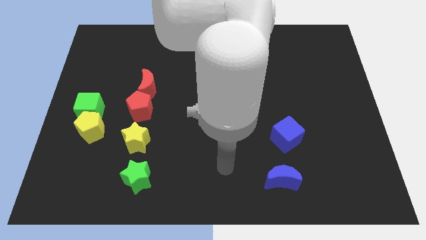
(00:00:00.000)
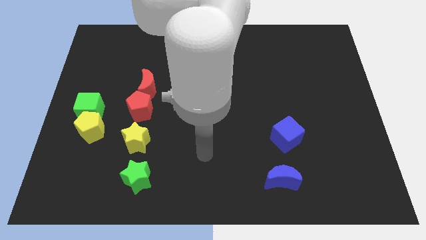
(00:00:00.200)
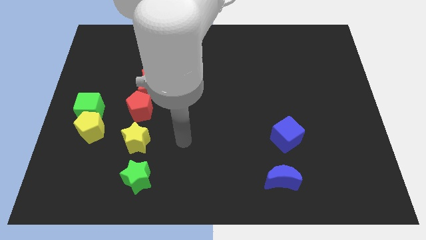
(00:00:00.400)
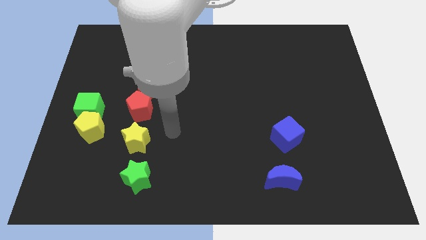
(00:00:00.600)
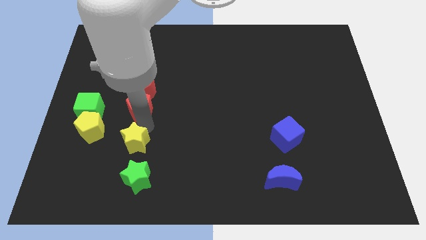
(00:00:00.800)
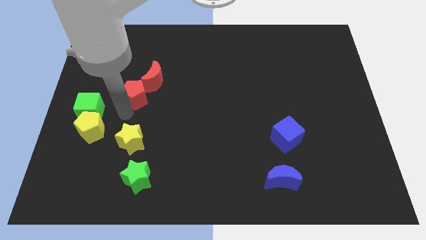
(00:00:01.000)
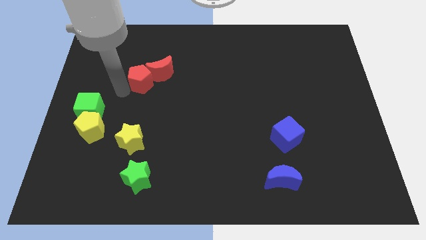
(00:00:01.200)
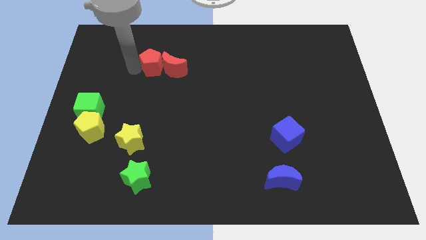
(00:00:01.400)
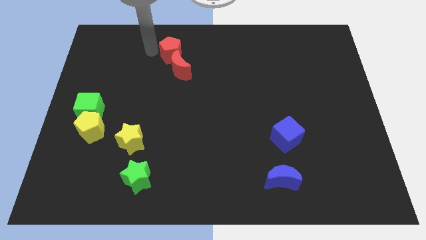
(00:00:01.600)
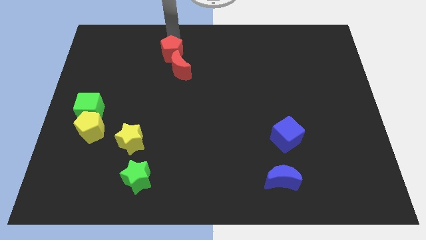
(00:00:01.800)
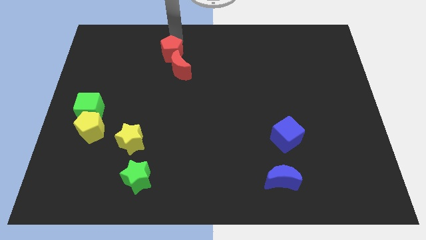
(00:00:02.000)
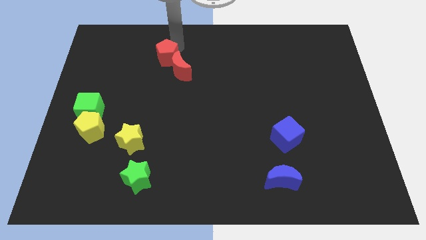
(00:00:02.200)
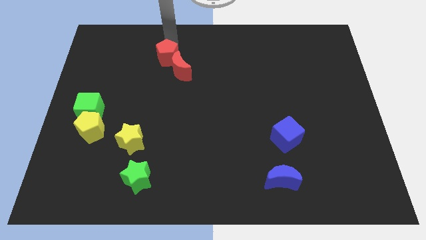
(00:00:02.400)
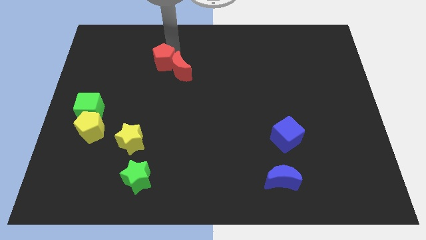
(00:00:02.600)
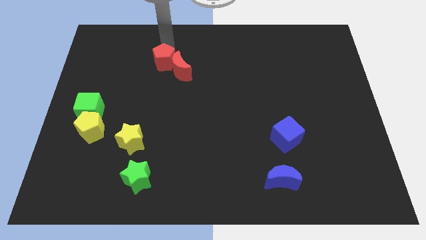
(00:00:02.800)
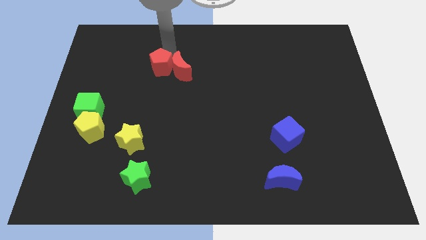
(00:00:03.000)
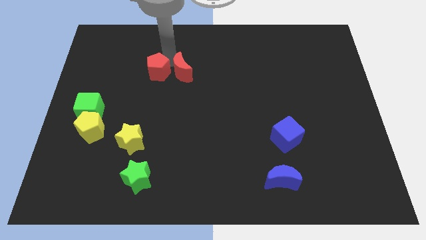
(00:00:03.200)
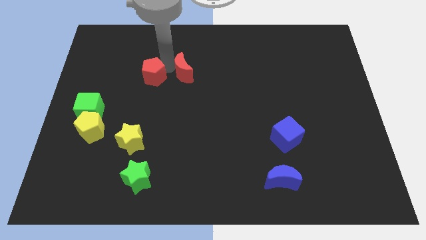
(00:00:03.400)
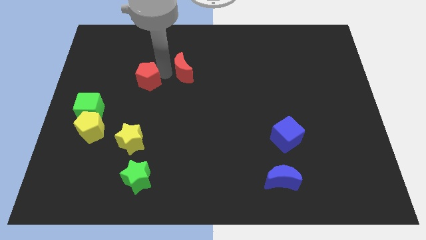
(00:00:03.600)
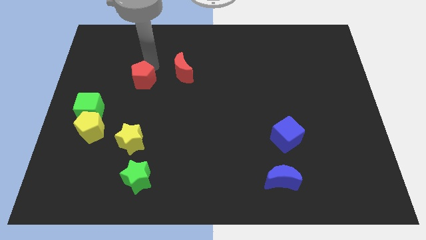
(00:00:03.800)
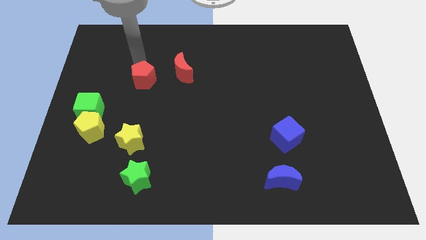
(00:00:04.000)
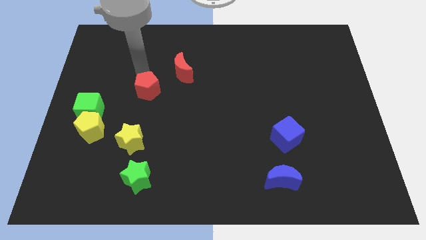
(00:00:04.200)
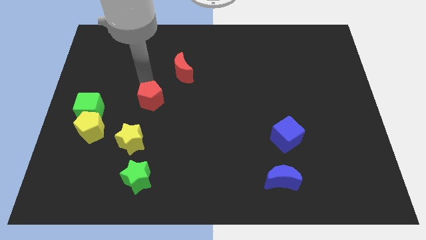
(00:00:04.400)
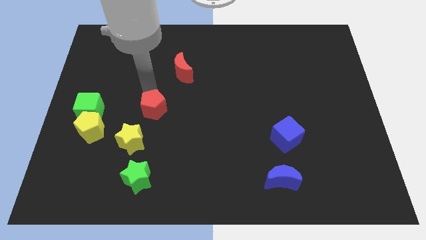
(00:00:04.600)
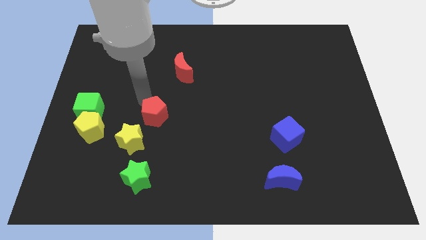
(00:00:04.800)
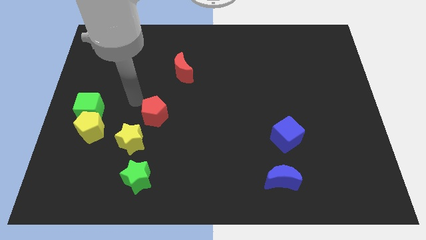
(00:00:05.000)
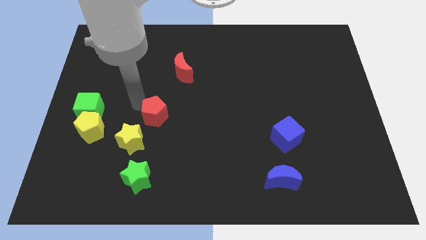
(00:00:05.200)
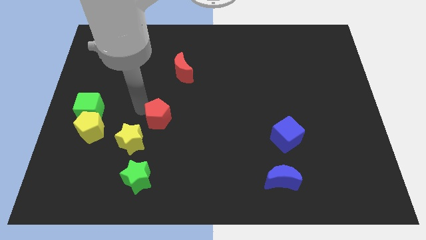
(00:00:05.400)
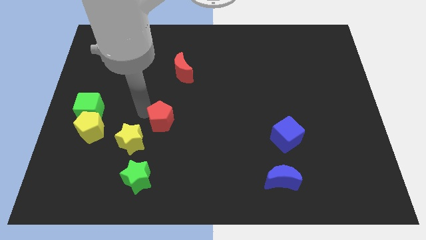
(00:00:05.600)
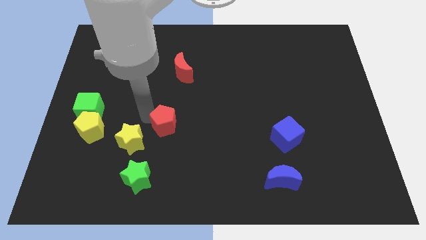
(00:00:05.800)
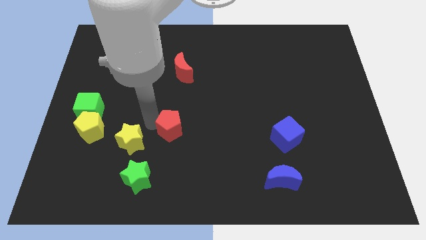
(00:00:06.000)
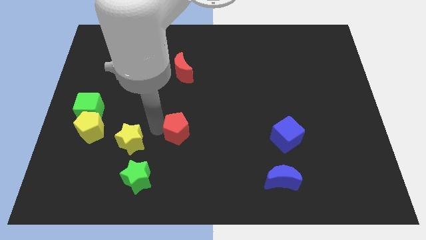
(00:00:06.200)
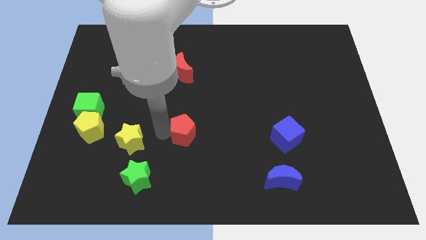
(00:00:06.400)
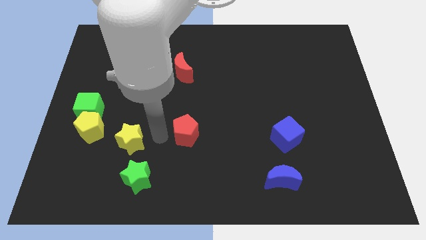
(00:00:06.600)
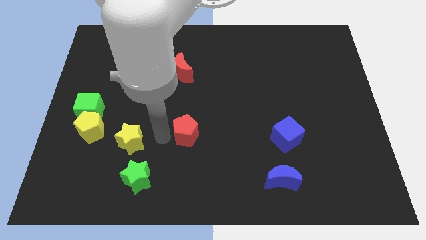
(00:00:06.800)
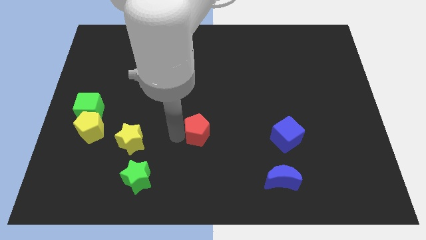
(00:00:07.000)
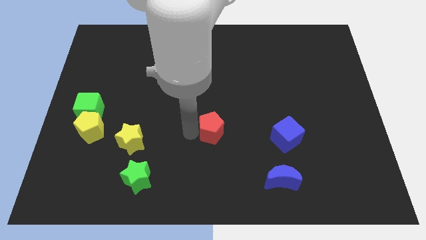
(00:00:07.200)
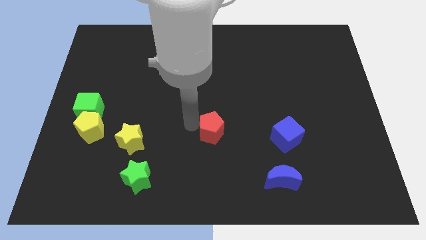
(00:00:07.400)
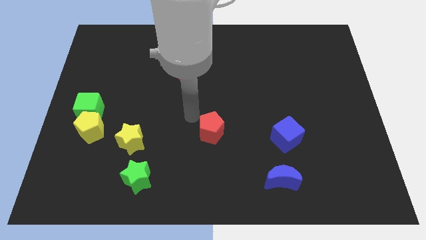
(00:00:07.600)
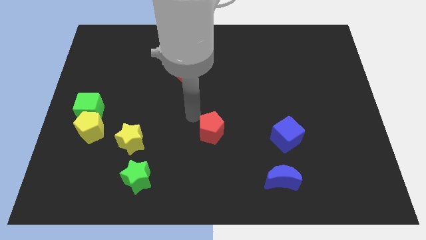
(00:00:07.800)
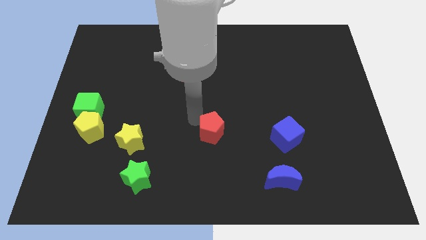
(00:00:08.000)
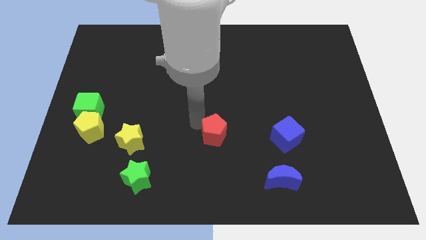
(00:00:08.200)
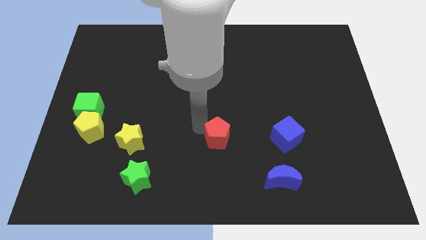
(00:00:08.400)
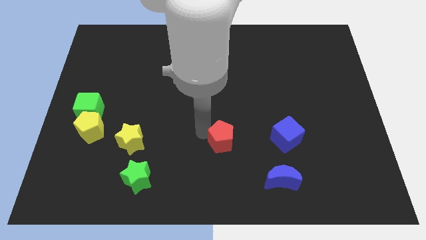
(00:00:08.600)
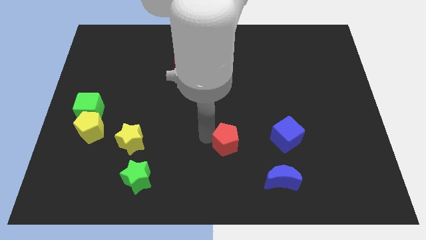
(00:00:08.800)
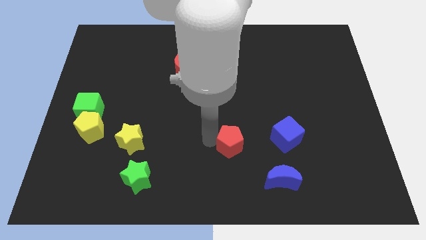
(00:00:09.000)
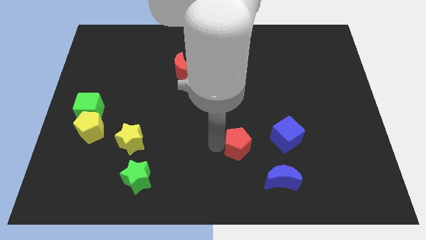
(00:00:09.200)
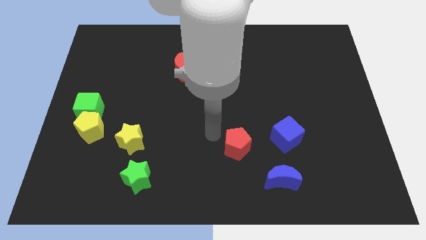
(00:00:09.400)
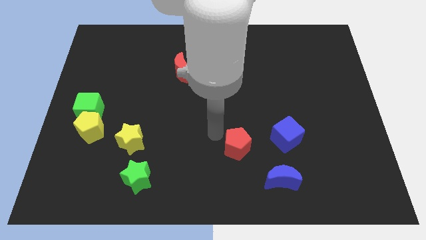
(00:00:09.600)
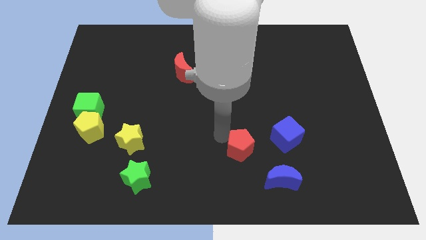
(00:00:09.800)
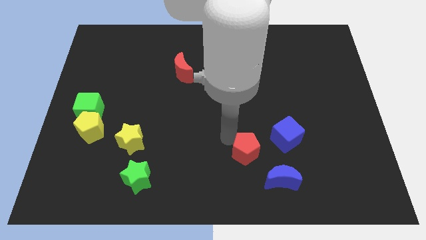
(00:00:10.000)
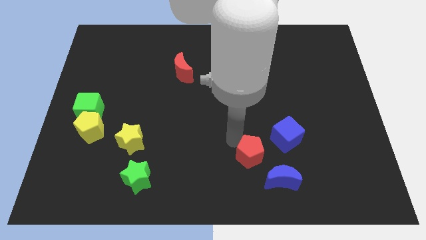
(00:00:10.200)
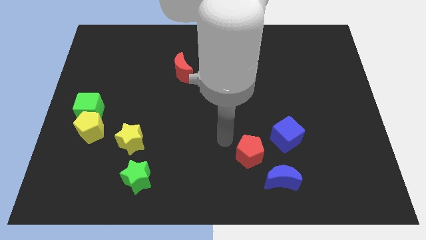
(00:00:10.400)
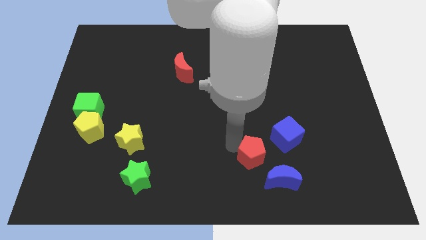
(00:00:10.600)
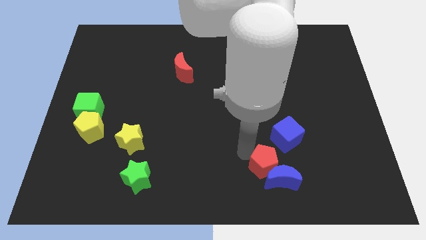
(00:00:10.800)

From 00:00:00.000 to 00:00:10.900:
slide the red pentagon towards the blue moon

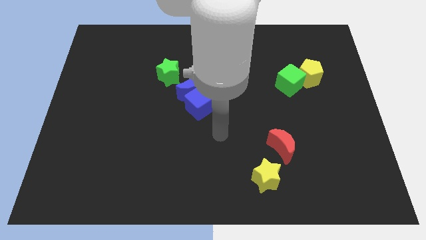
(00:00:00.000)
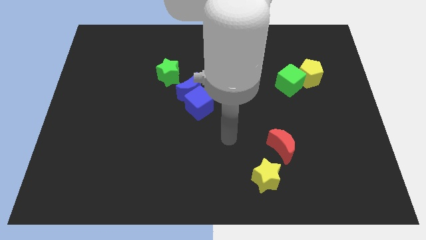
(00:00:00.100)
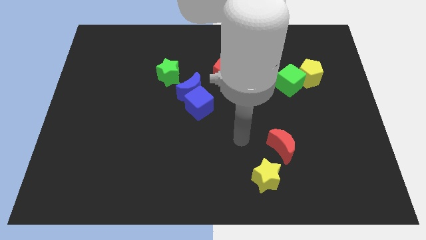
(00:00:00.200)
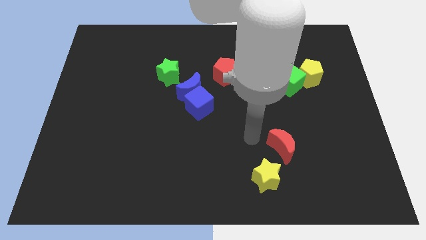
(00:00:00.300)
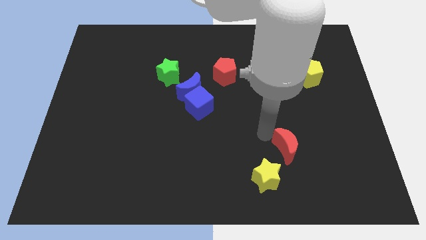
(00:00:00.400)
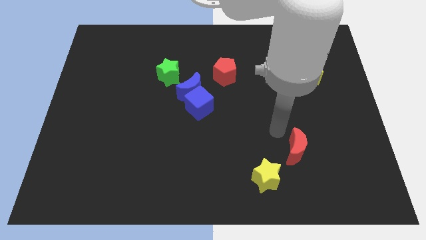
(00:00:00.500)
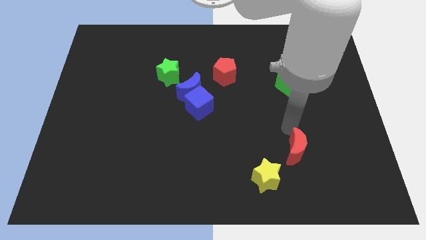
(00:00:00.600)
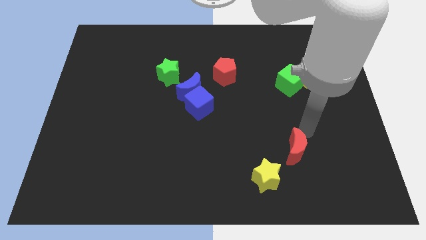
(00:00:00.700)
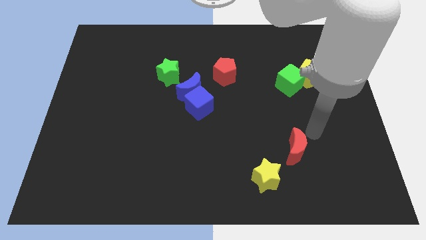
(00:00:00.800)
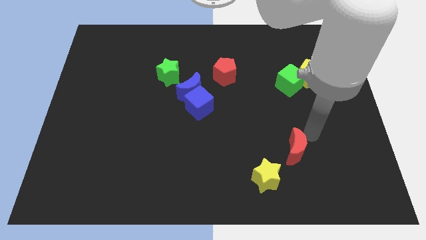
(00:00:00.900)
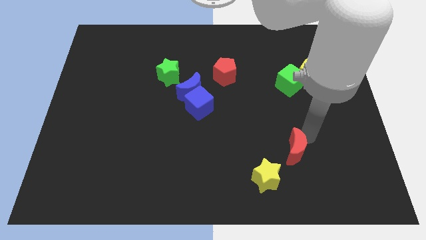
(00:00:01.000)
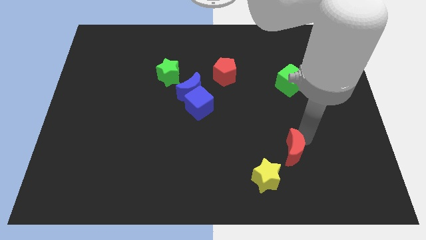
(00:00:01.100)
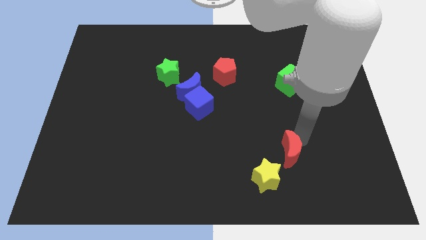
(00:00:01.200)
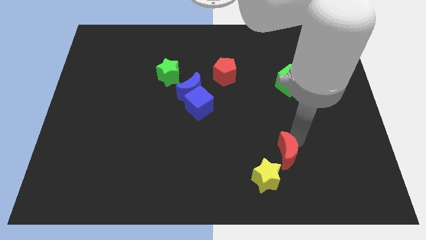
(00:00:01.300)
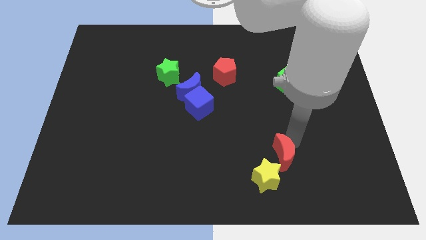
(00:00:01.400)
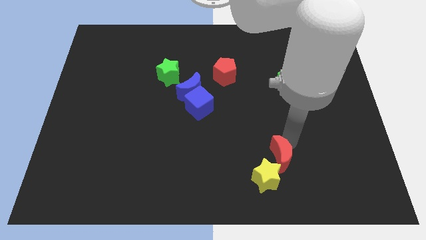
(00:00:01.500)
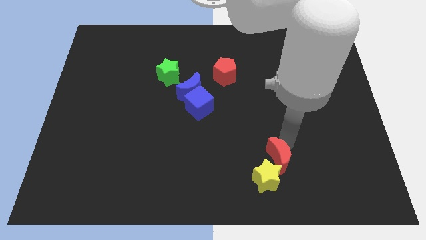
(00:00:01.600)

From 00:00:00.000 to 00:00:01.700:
push the red moon towards the yellow star

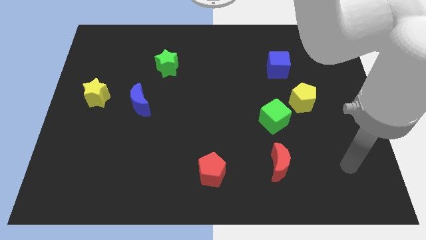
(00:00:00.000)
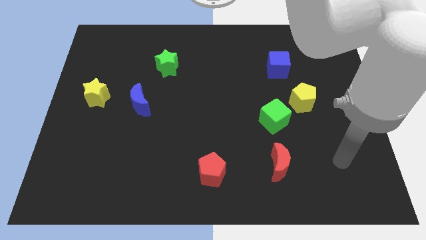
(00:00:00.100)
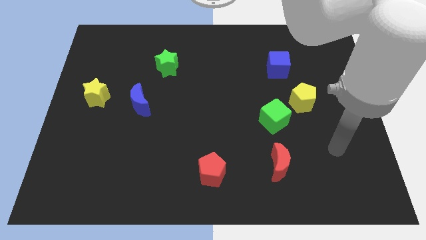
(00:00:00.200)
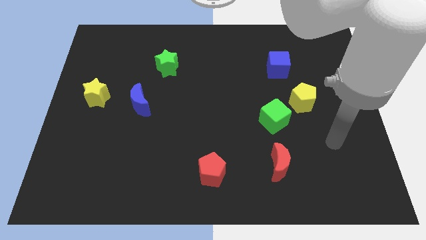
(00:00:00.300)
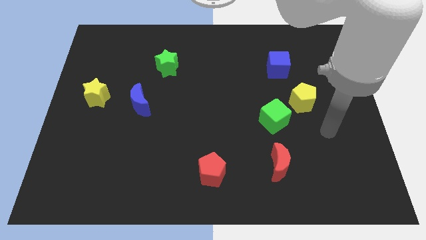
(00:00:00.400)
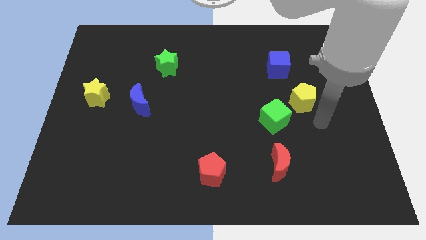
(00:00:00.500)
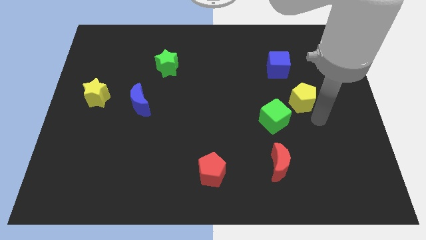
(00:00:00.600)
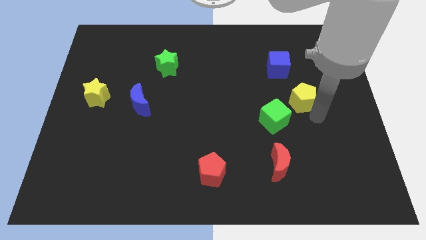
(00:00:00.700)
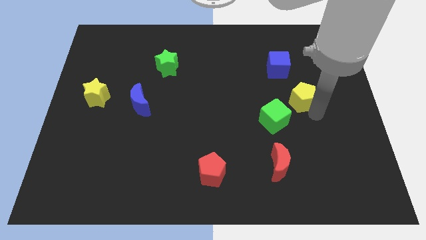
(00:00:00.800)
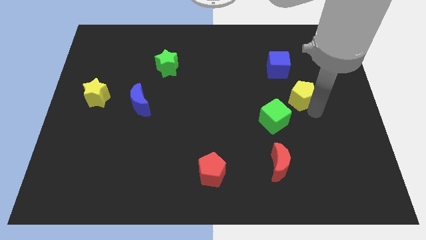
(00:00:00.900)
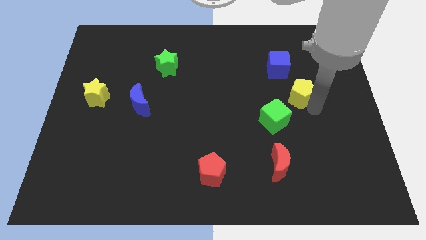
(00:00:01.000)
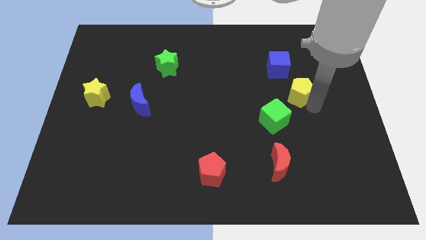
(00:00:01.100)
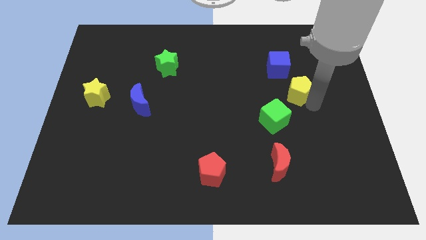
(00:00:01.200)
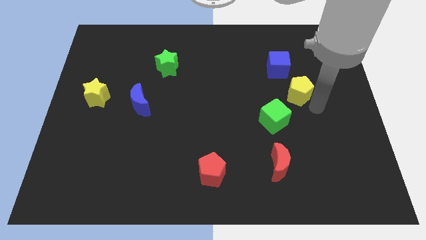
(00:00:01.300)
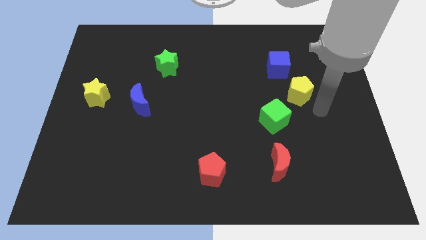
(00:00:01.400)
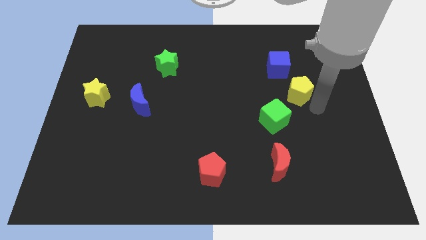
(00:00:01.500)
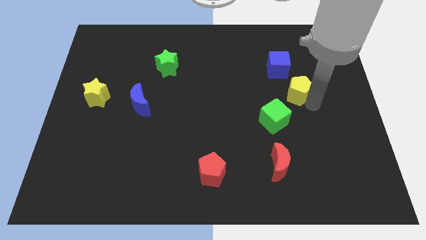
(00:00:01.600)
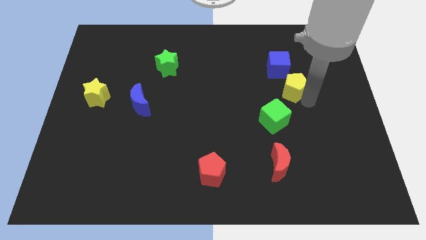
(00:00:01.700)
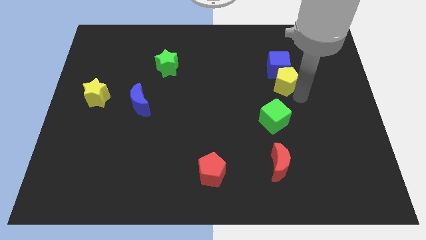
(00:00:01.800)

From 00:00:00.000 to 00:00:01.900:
push the yellow pentagon close to the blue cube
